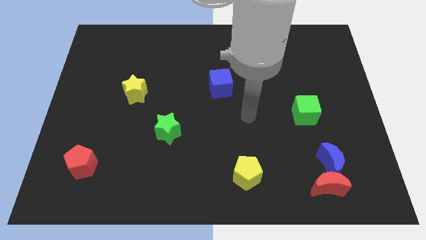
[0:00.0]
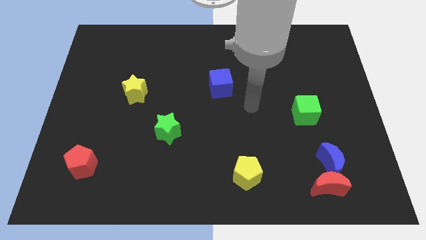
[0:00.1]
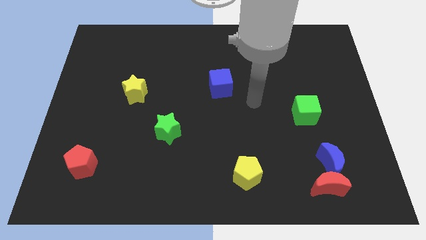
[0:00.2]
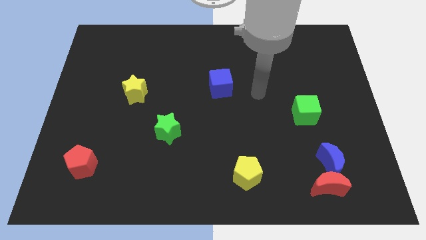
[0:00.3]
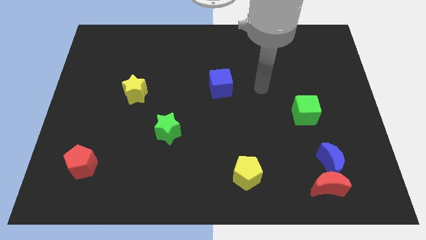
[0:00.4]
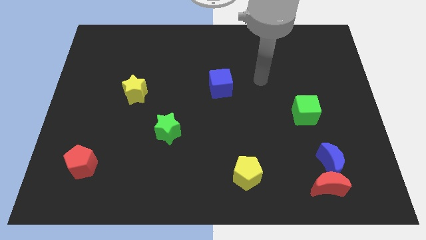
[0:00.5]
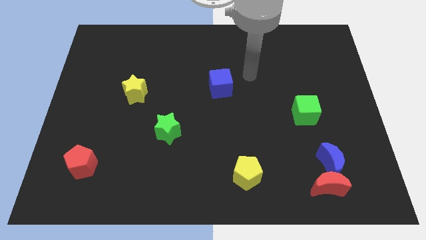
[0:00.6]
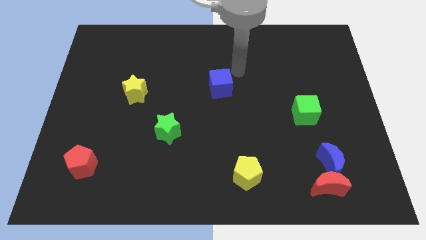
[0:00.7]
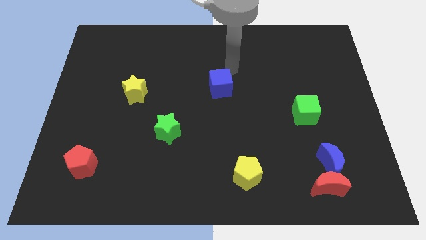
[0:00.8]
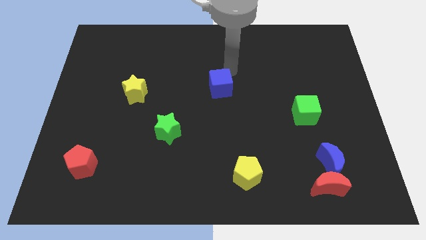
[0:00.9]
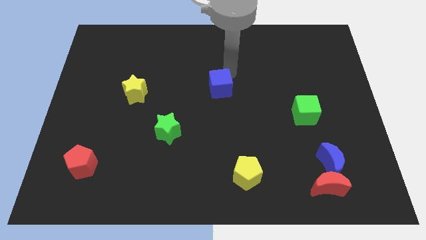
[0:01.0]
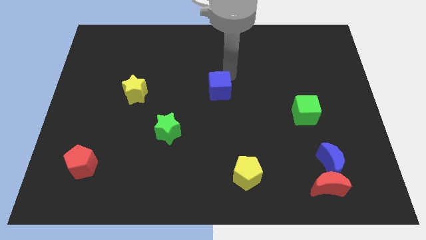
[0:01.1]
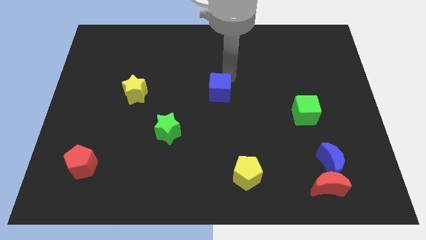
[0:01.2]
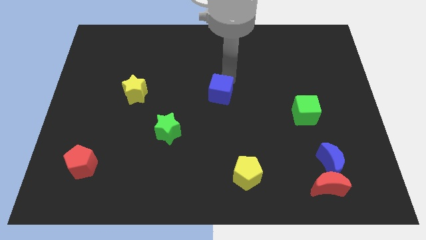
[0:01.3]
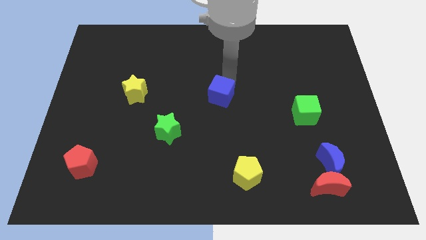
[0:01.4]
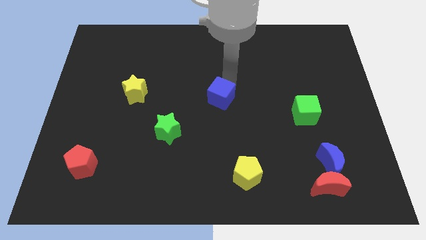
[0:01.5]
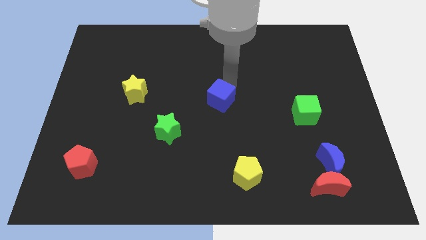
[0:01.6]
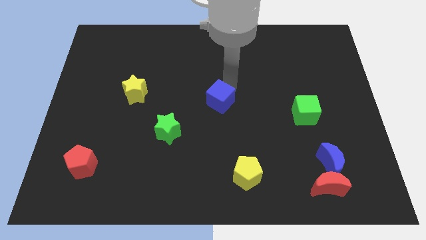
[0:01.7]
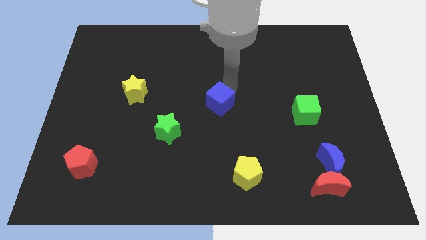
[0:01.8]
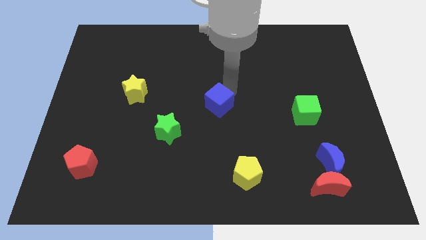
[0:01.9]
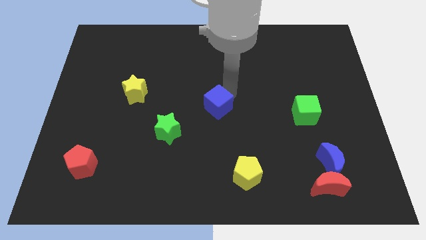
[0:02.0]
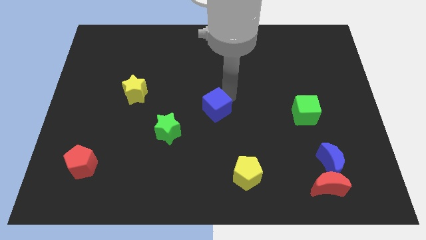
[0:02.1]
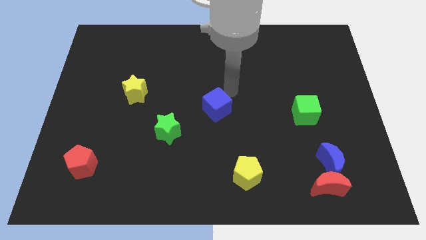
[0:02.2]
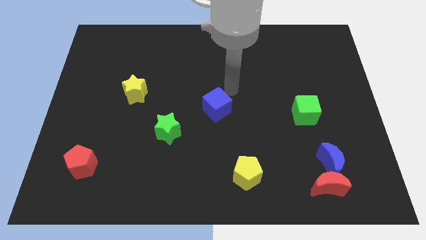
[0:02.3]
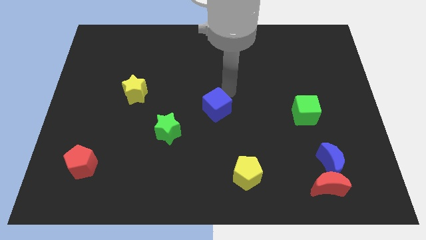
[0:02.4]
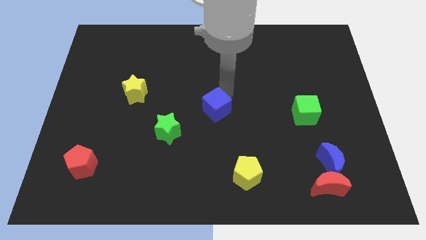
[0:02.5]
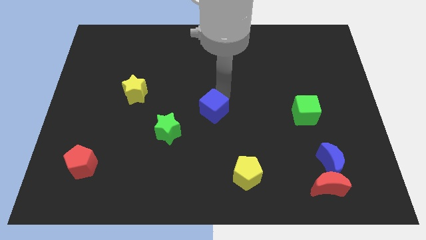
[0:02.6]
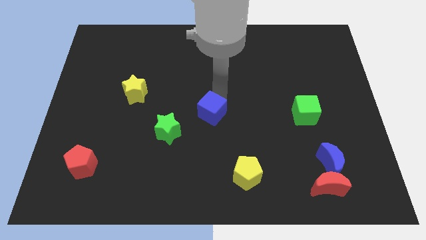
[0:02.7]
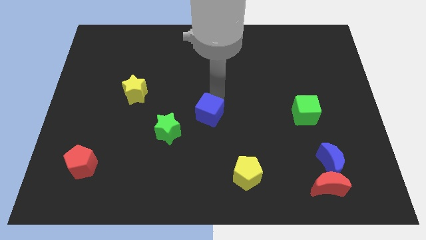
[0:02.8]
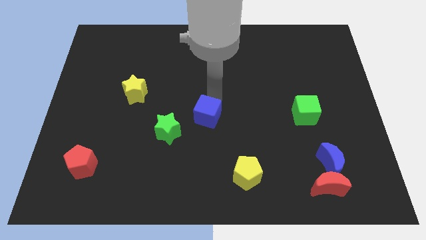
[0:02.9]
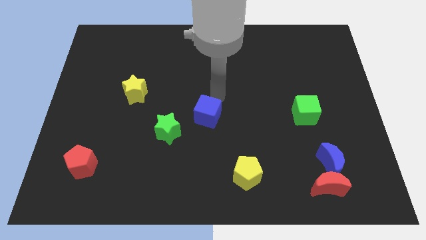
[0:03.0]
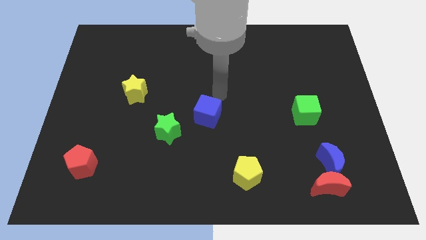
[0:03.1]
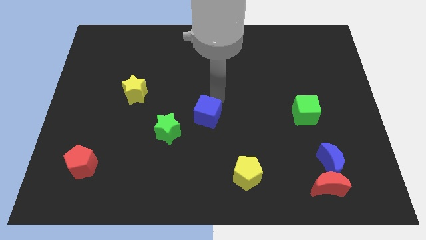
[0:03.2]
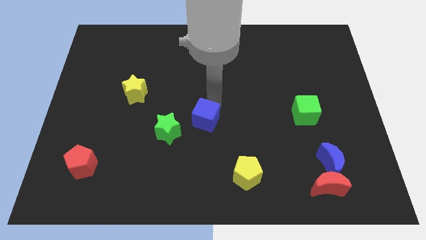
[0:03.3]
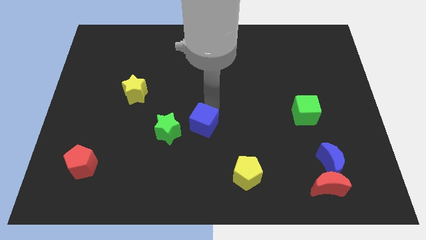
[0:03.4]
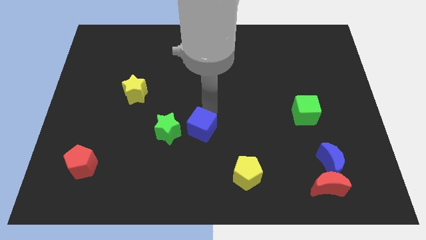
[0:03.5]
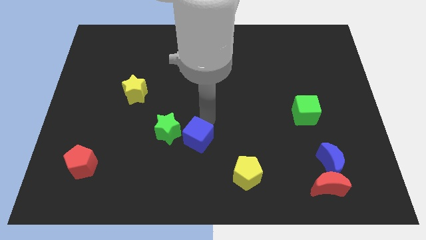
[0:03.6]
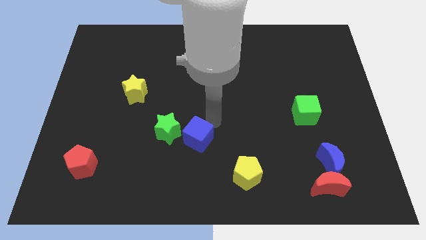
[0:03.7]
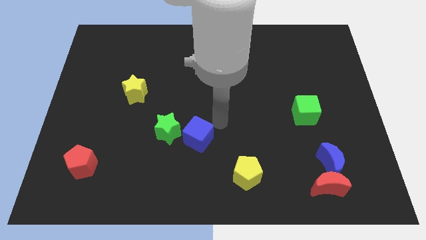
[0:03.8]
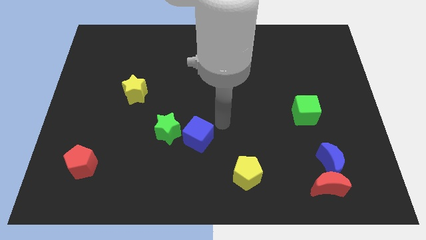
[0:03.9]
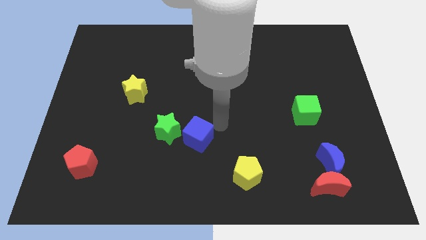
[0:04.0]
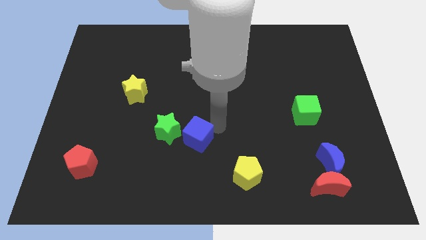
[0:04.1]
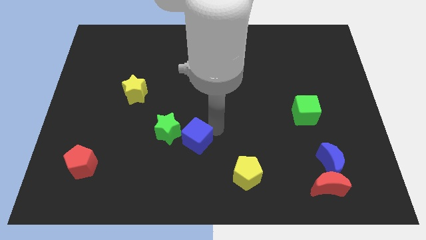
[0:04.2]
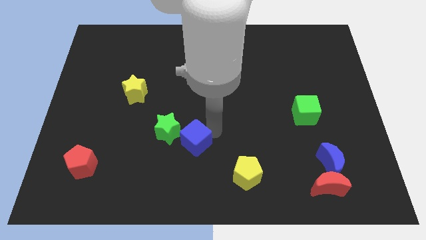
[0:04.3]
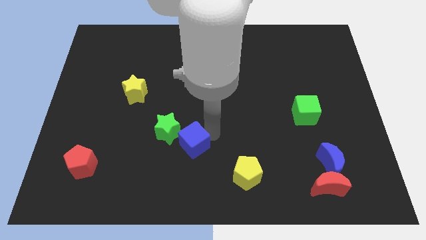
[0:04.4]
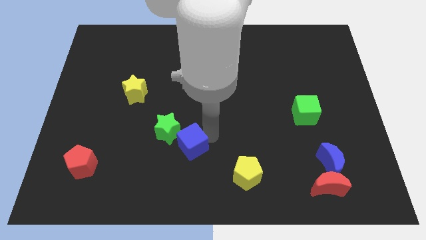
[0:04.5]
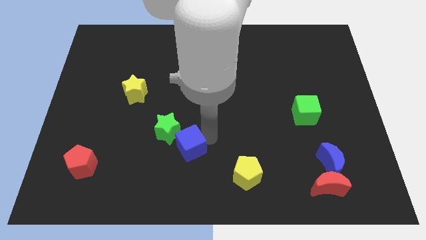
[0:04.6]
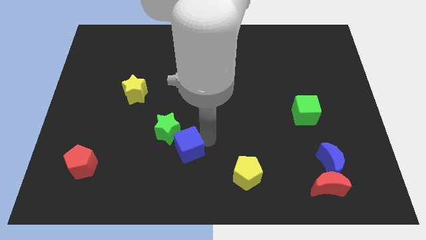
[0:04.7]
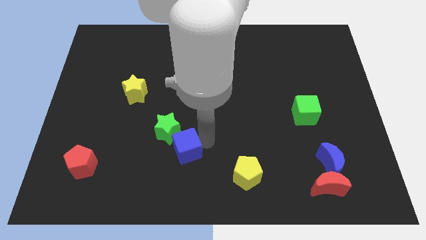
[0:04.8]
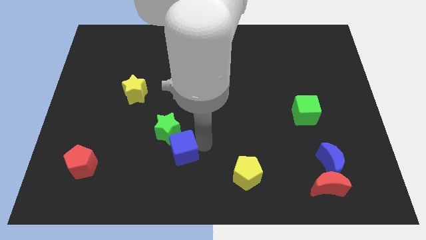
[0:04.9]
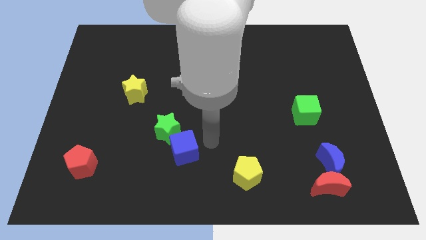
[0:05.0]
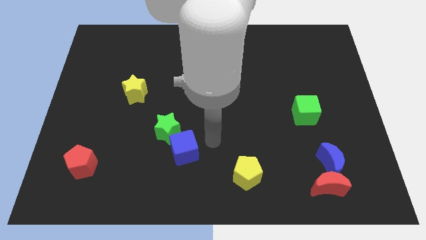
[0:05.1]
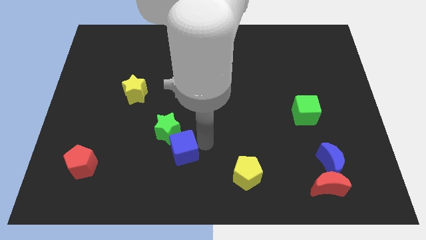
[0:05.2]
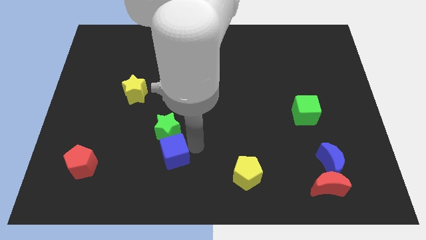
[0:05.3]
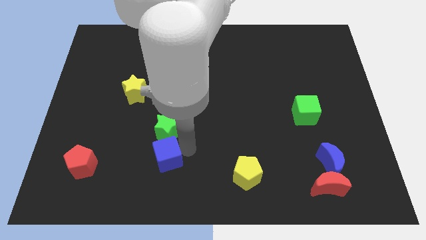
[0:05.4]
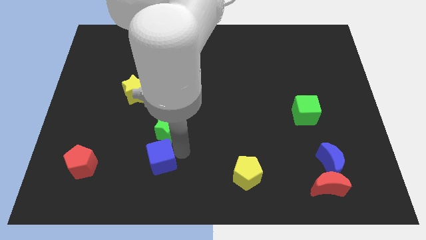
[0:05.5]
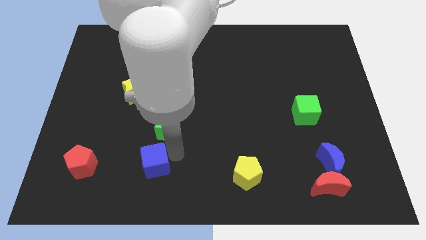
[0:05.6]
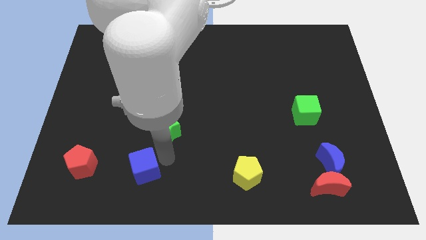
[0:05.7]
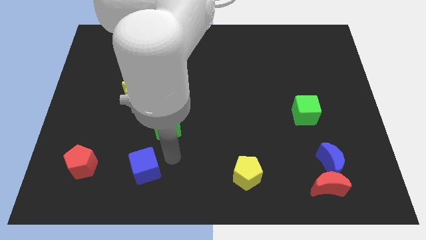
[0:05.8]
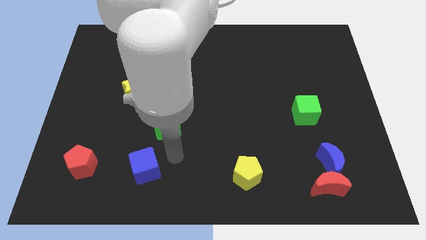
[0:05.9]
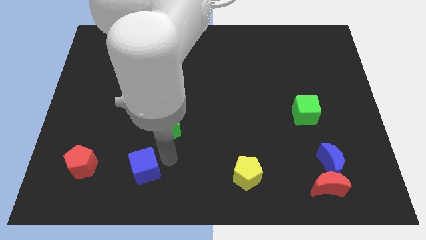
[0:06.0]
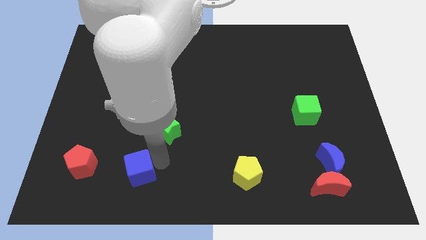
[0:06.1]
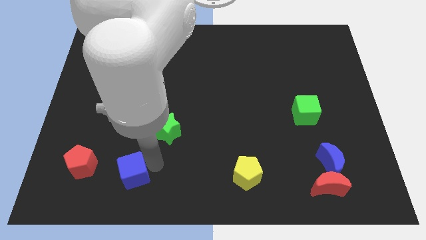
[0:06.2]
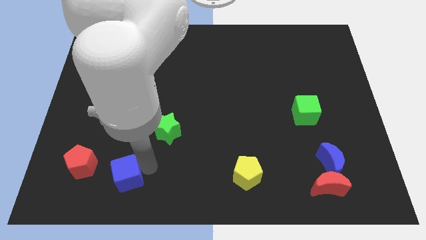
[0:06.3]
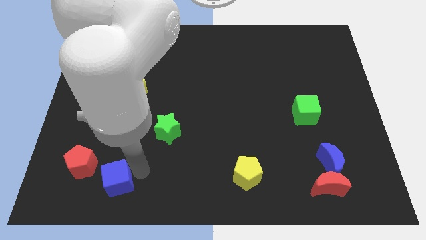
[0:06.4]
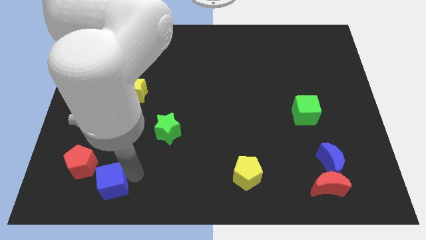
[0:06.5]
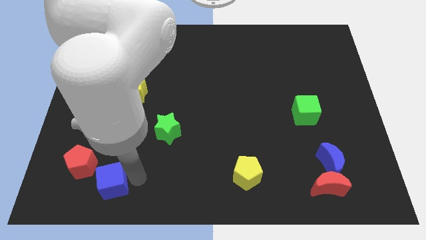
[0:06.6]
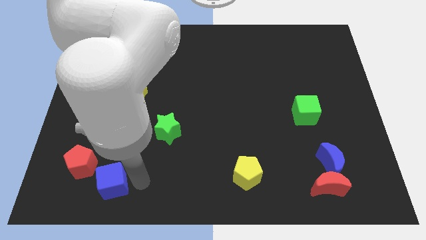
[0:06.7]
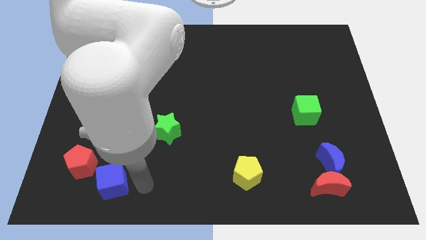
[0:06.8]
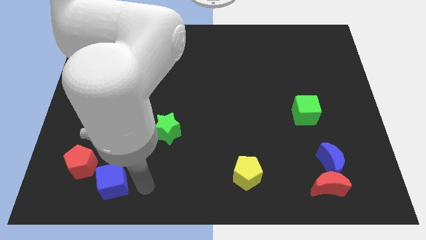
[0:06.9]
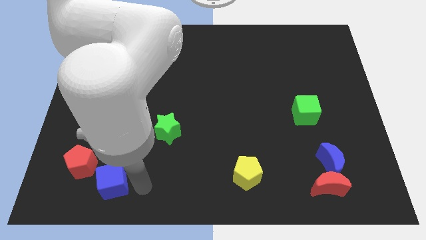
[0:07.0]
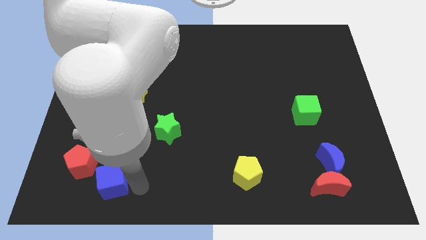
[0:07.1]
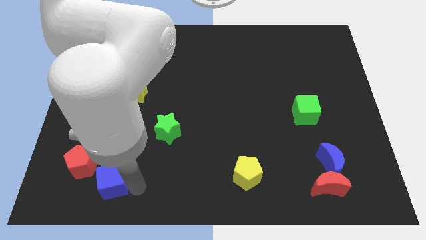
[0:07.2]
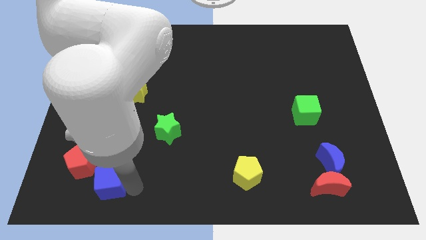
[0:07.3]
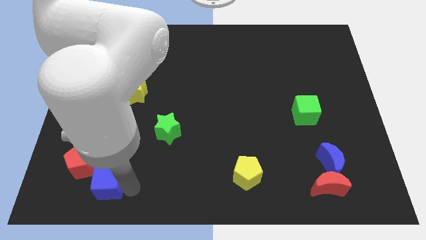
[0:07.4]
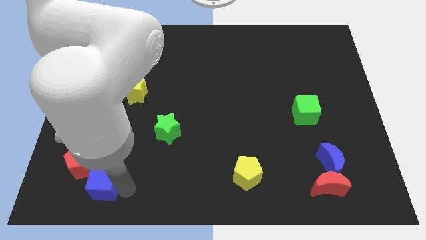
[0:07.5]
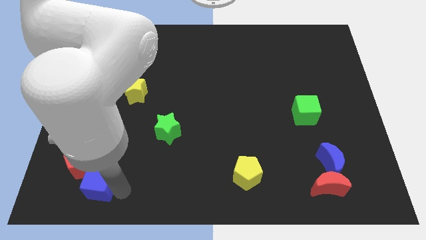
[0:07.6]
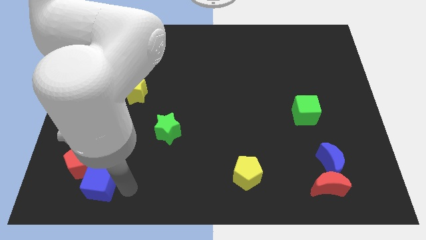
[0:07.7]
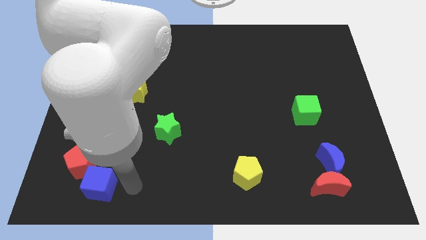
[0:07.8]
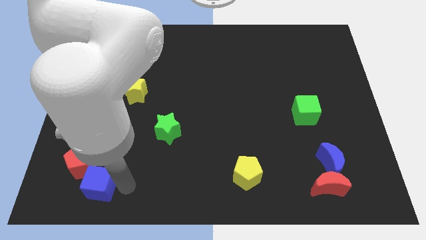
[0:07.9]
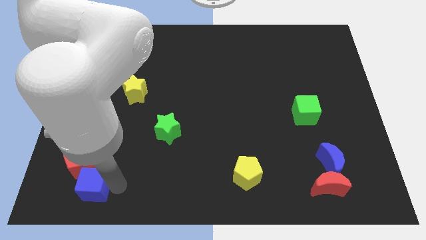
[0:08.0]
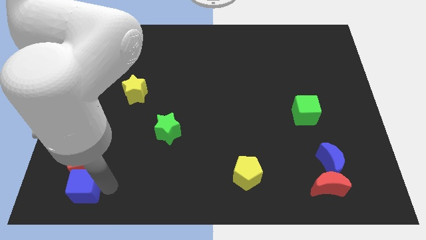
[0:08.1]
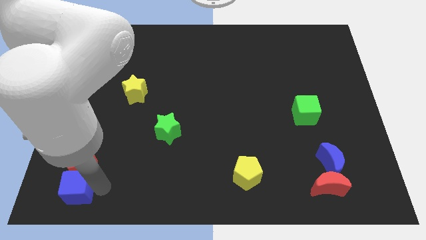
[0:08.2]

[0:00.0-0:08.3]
move the blue cube to the bottom left corner
